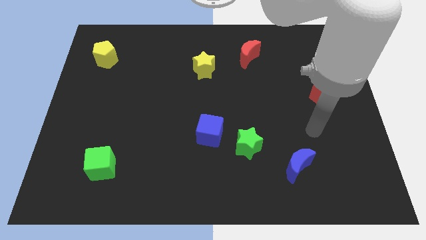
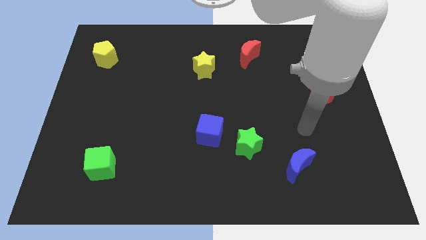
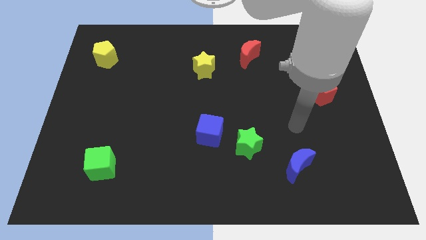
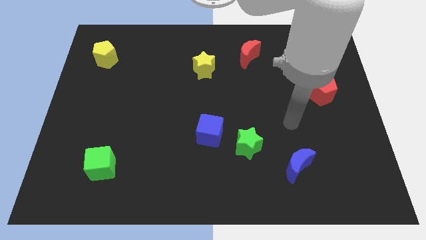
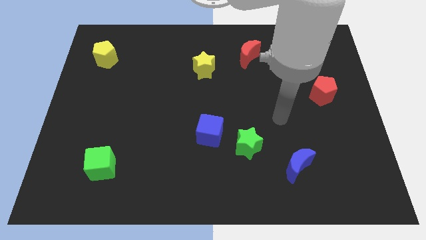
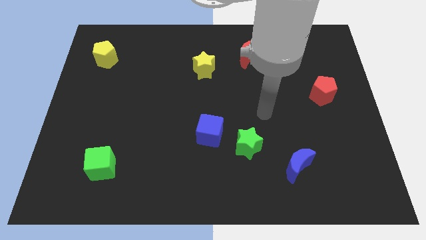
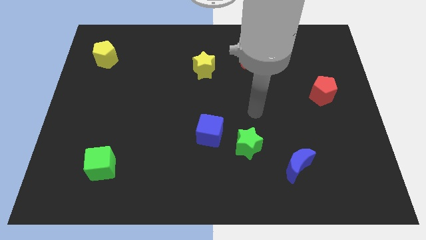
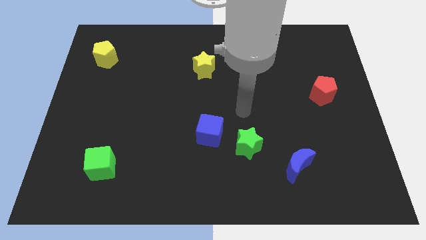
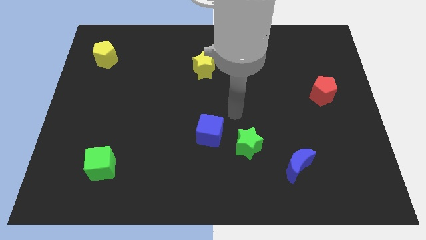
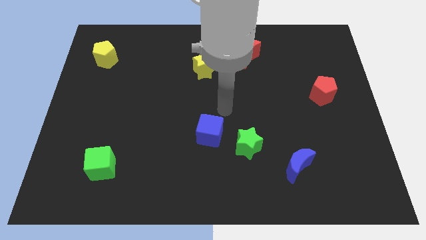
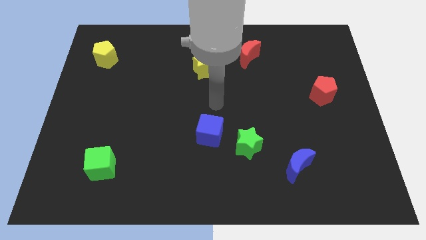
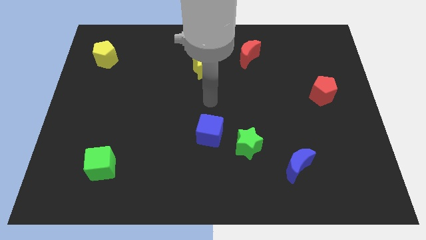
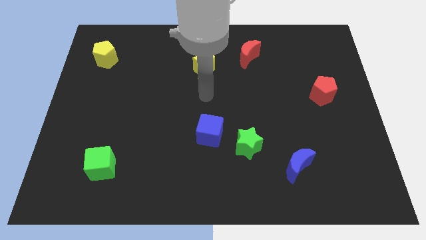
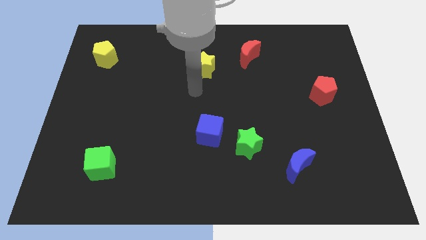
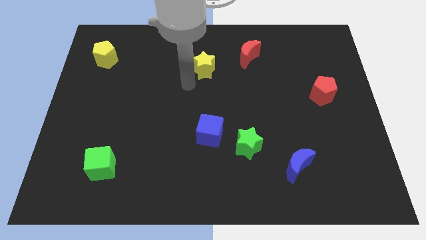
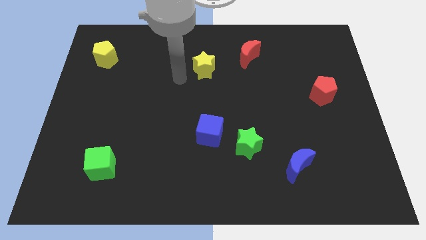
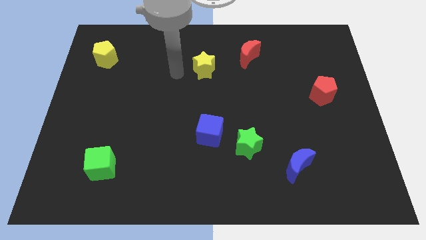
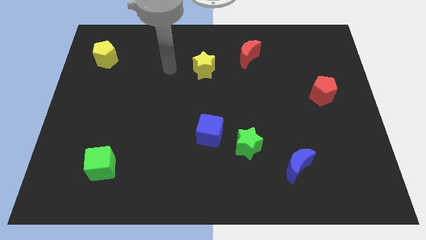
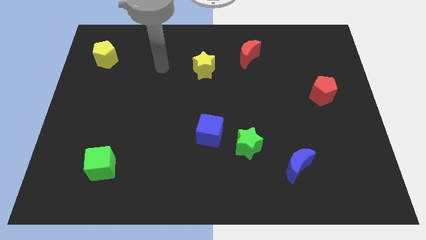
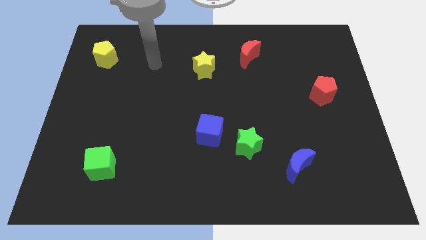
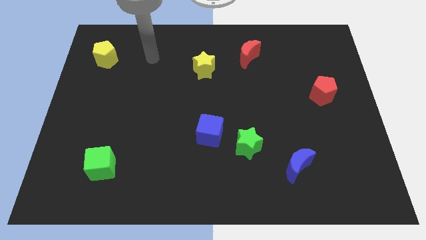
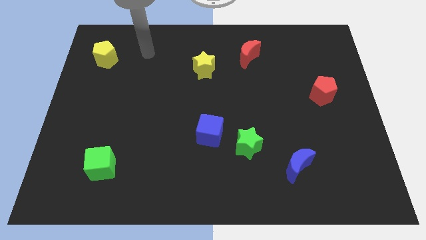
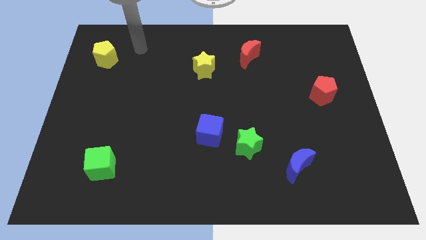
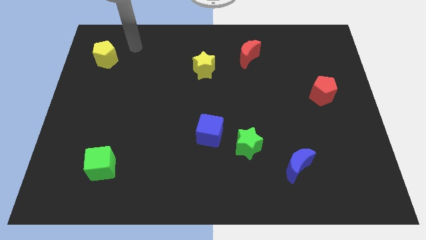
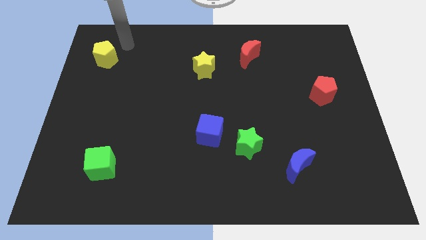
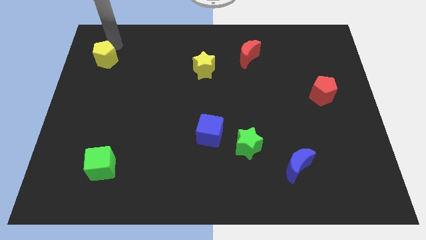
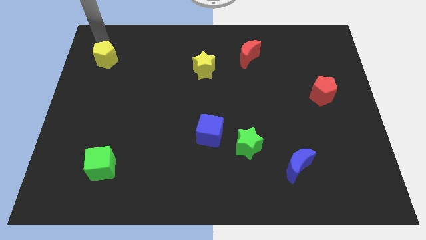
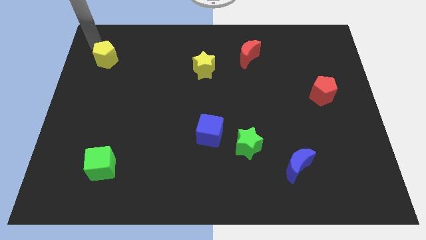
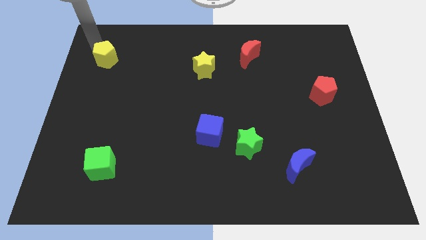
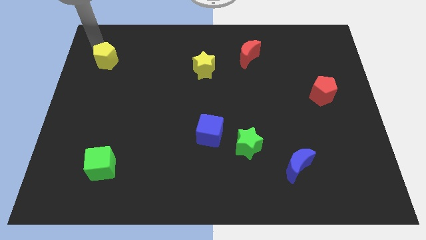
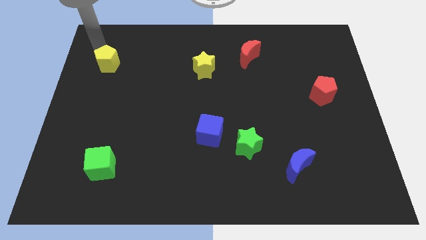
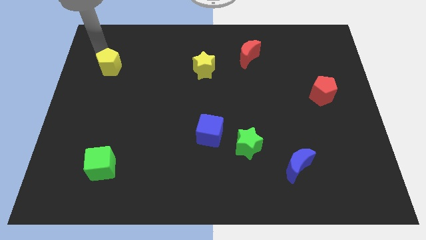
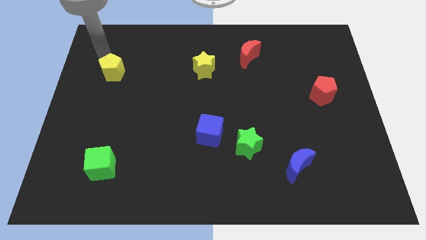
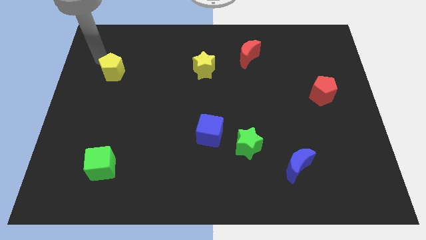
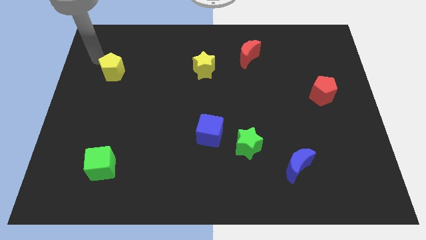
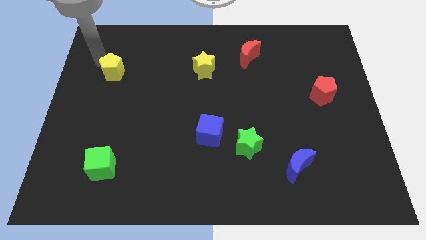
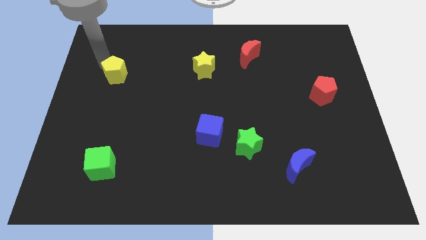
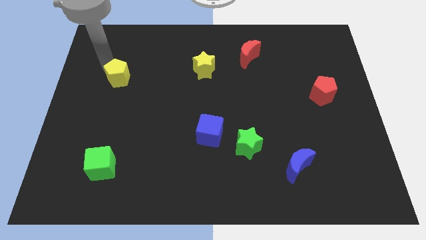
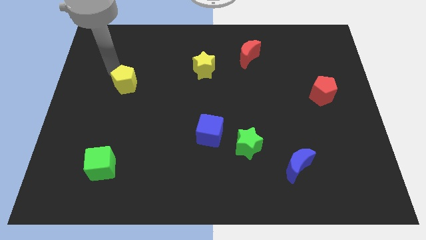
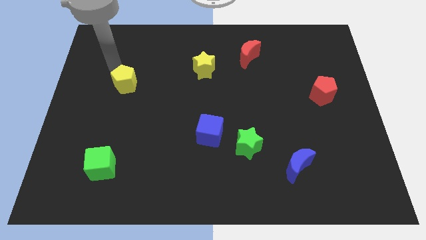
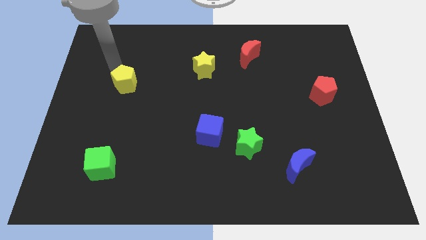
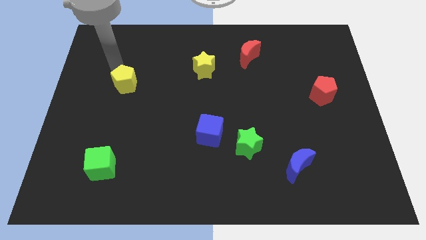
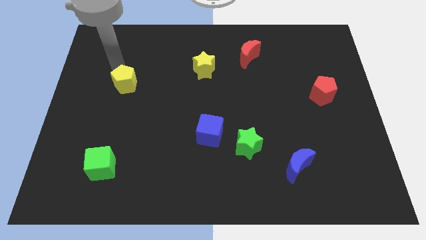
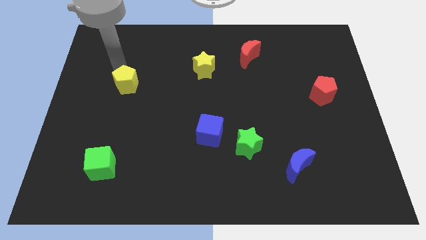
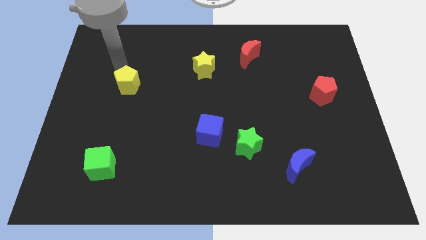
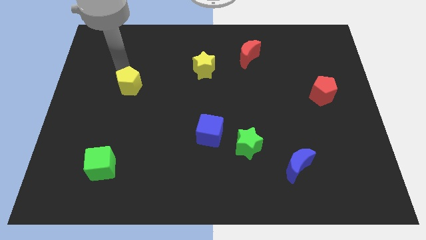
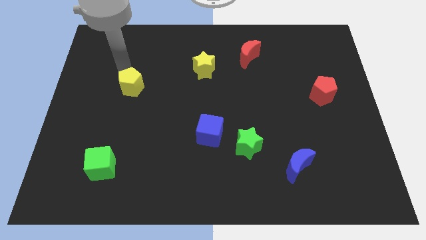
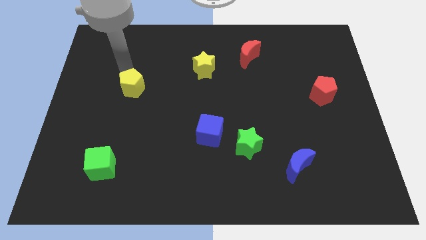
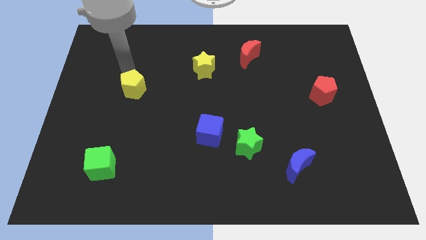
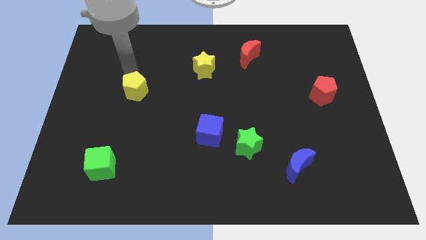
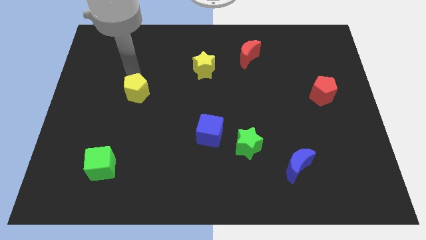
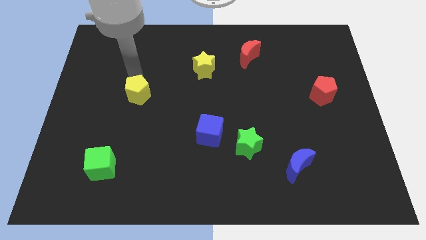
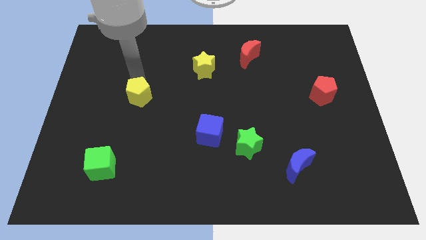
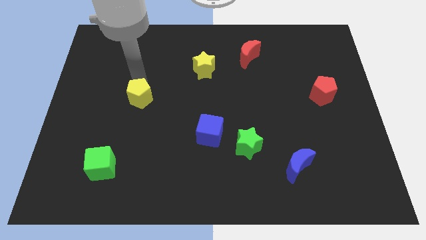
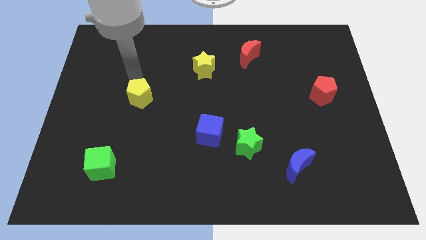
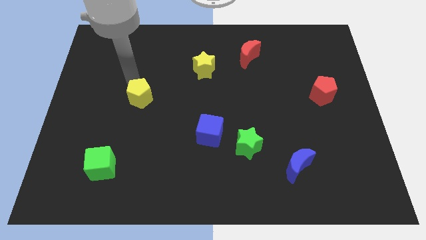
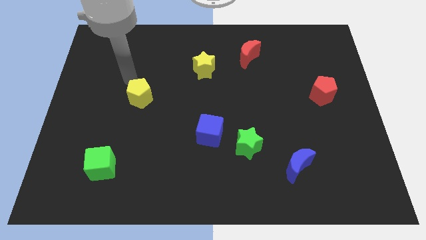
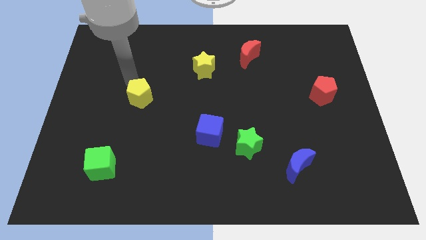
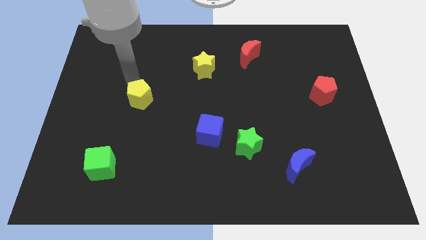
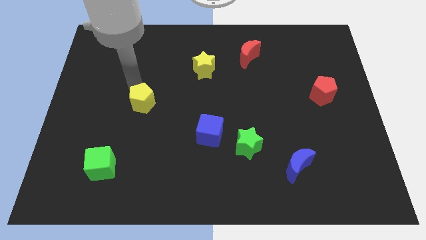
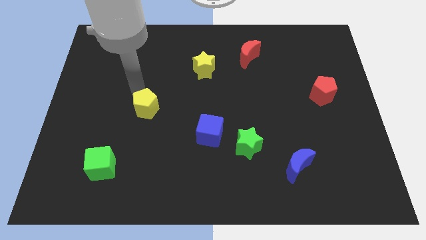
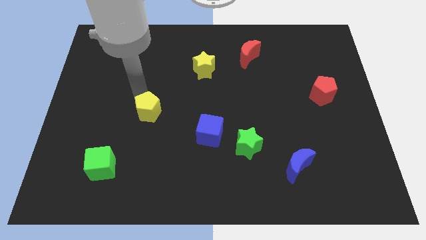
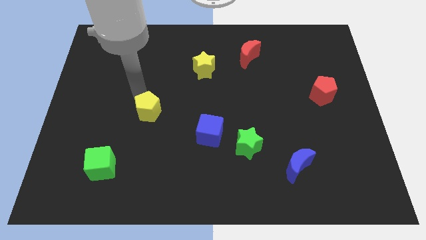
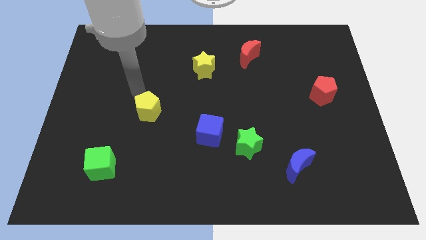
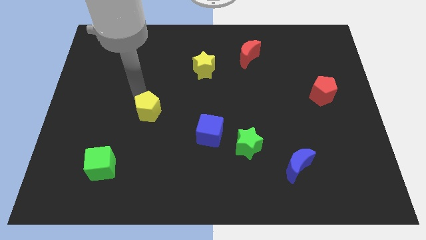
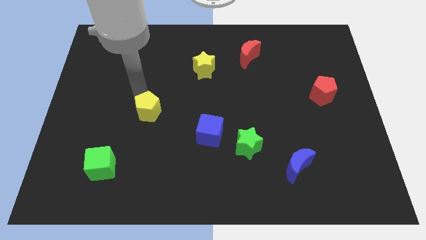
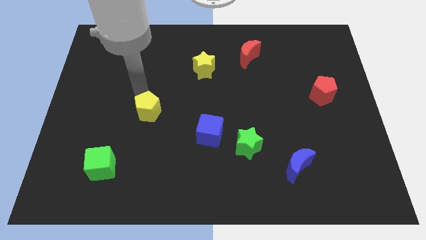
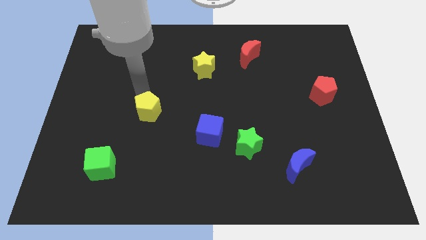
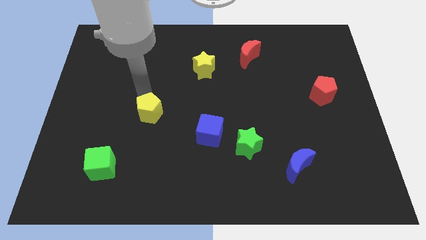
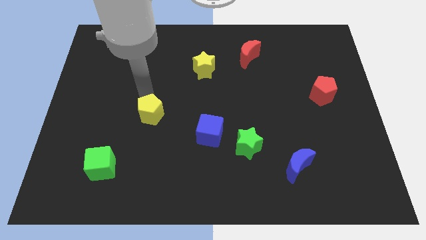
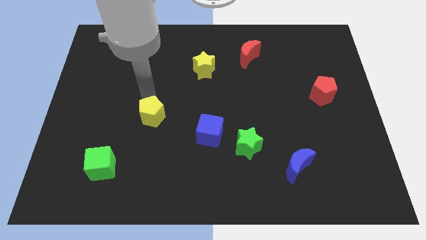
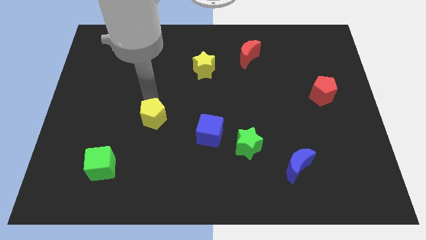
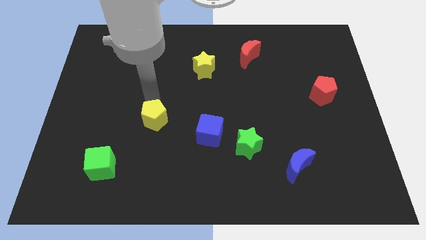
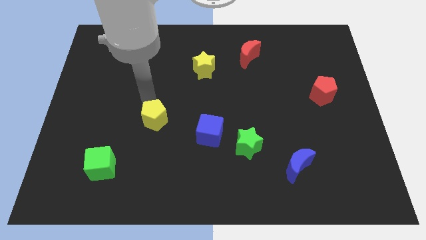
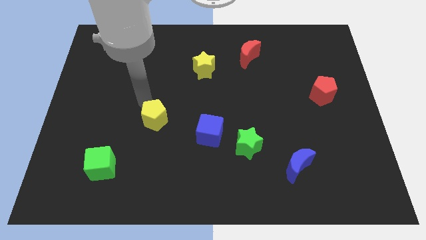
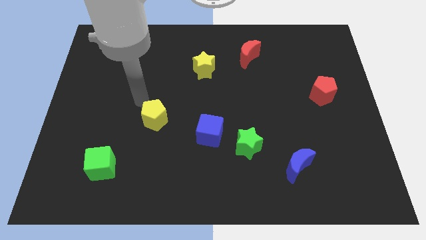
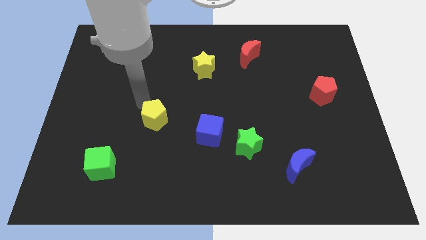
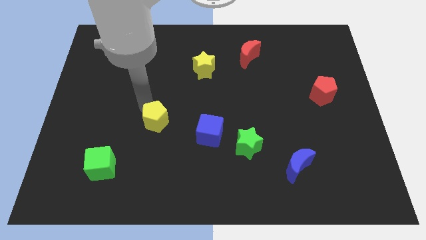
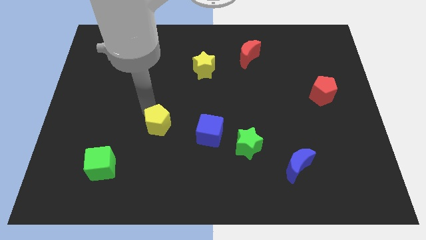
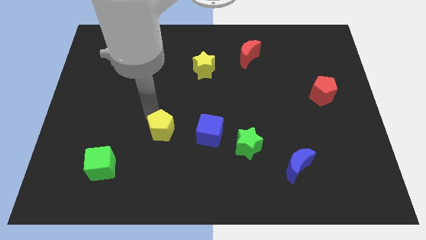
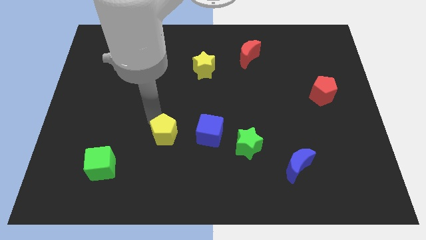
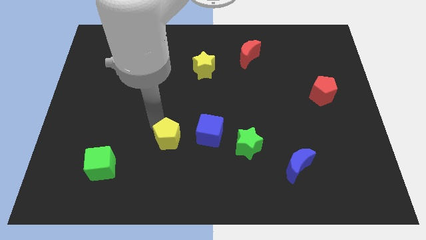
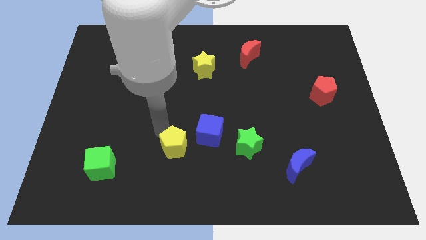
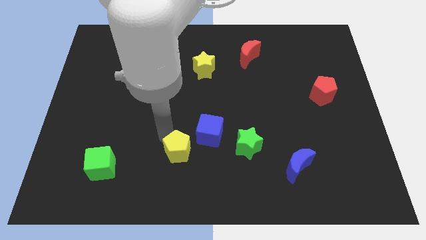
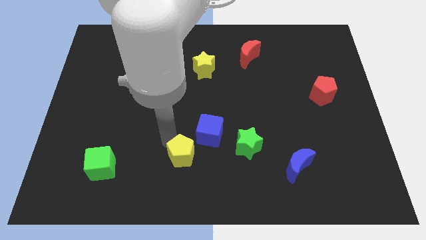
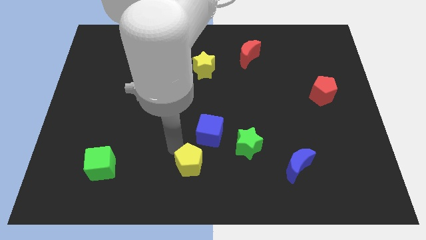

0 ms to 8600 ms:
move the yellow pentagon to the bottom of the blue cube
